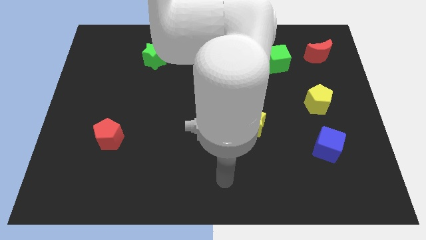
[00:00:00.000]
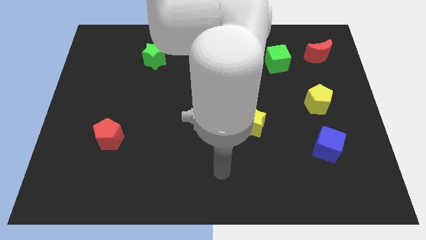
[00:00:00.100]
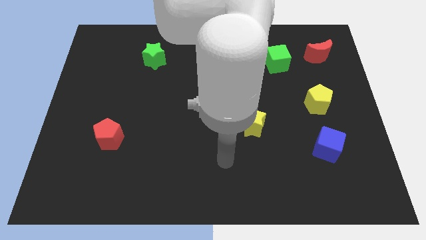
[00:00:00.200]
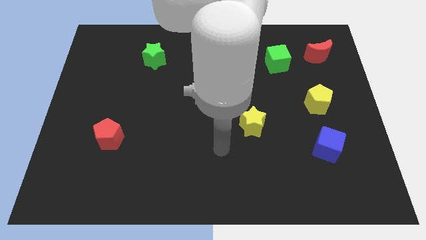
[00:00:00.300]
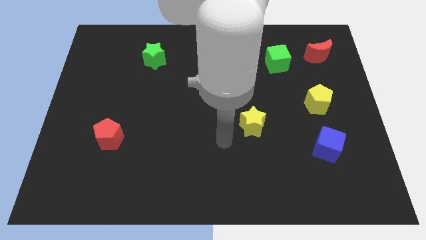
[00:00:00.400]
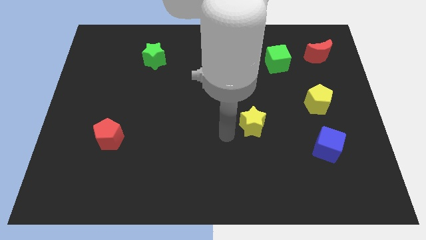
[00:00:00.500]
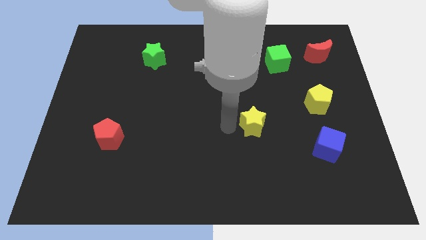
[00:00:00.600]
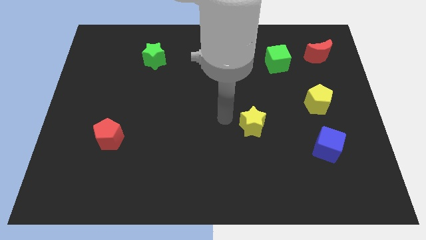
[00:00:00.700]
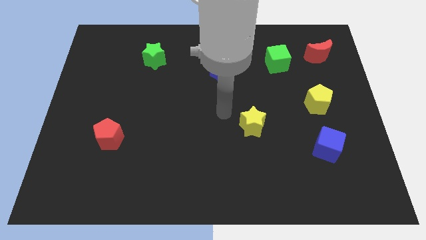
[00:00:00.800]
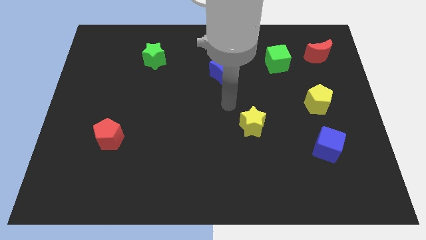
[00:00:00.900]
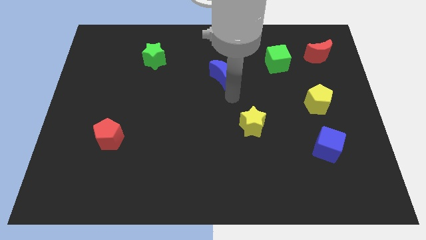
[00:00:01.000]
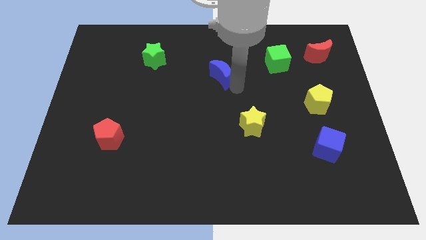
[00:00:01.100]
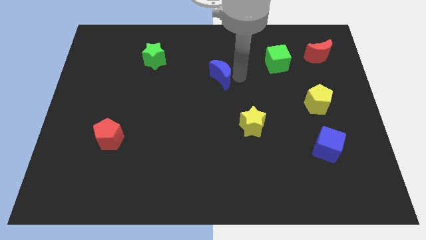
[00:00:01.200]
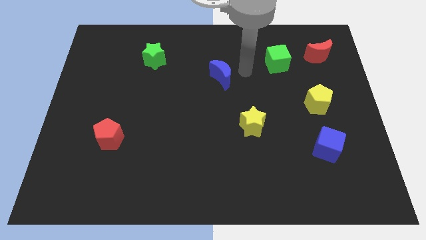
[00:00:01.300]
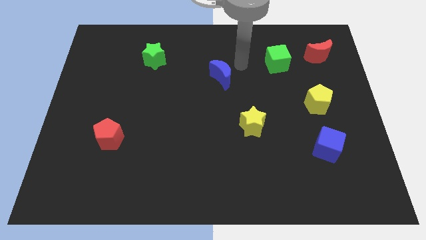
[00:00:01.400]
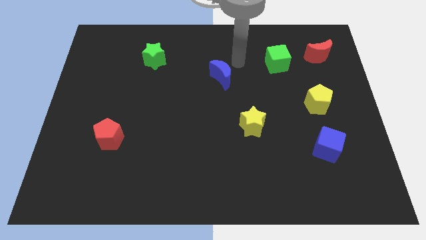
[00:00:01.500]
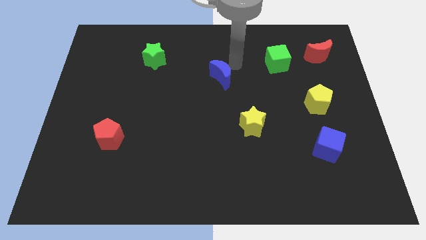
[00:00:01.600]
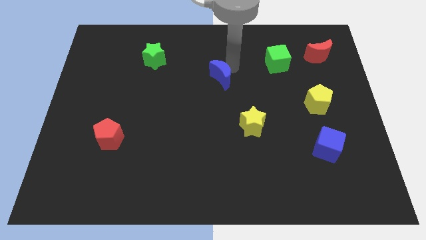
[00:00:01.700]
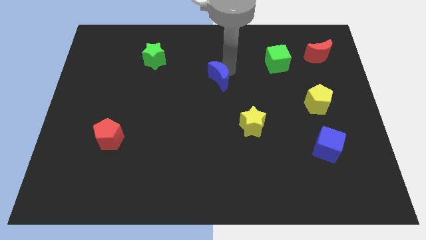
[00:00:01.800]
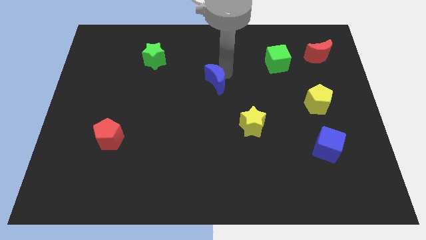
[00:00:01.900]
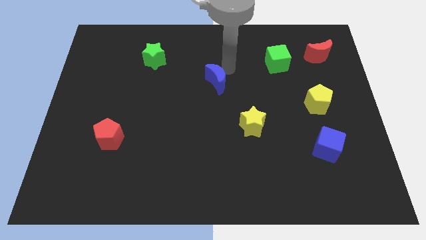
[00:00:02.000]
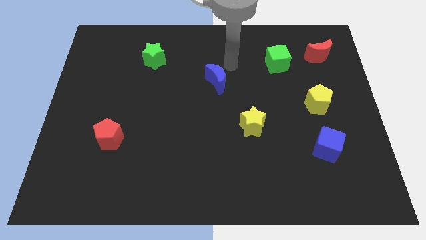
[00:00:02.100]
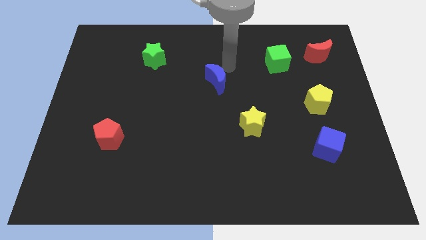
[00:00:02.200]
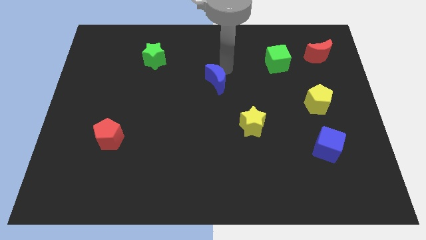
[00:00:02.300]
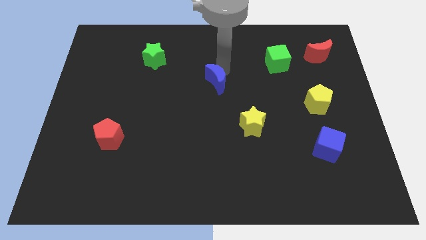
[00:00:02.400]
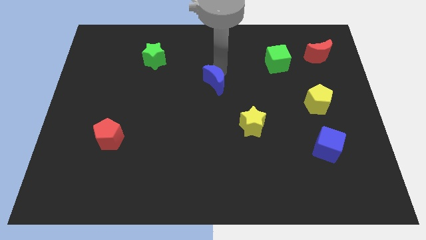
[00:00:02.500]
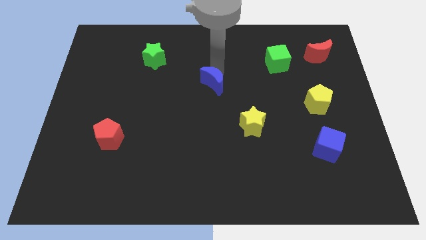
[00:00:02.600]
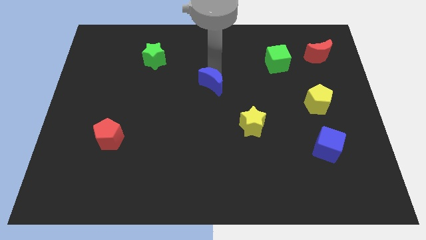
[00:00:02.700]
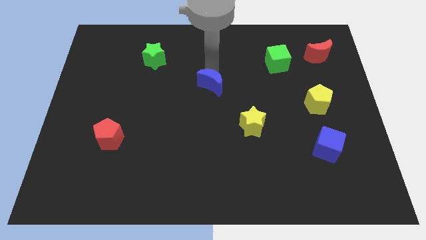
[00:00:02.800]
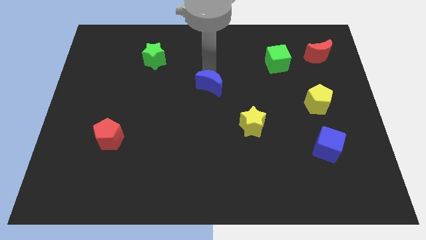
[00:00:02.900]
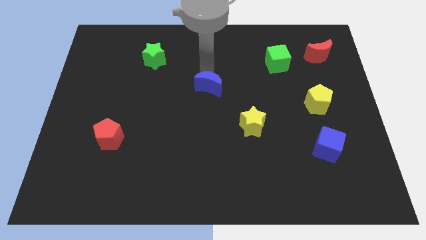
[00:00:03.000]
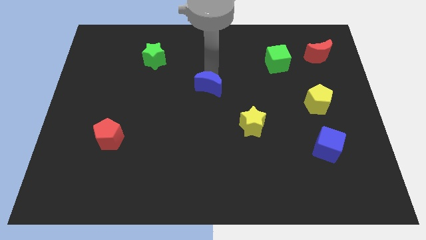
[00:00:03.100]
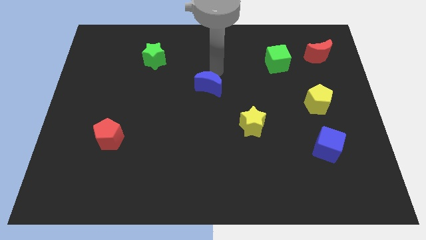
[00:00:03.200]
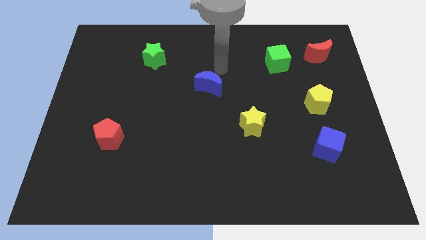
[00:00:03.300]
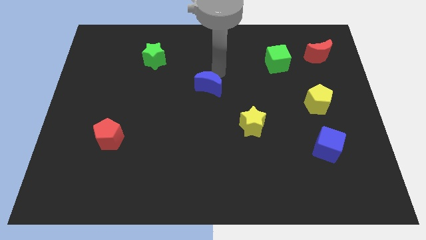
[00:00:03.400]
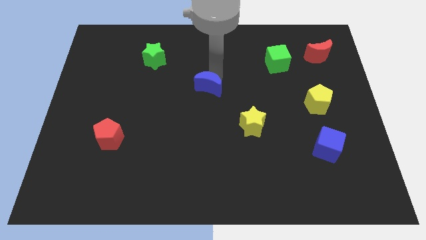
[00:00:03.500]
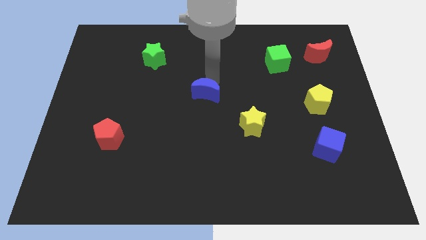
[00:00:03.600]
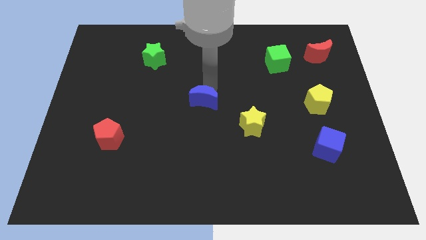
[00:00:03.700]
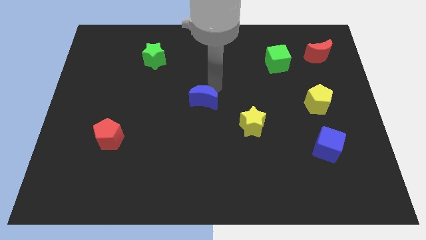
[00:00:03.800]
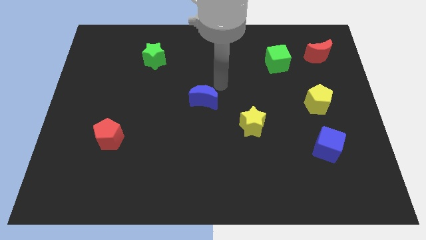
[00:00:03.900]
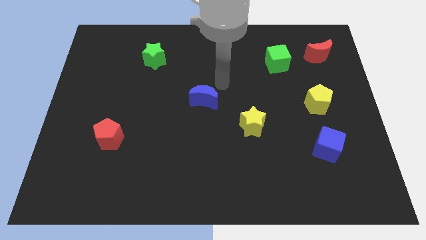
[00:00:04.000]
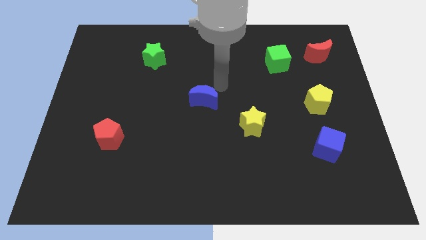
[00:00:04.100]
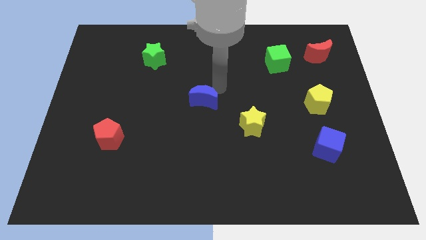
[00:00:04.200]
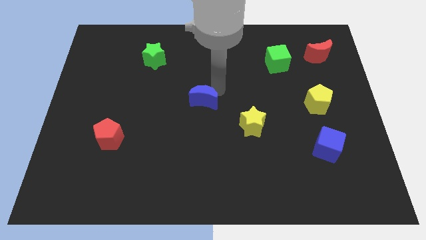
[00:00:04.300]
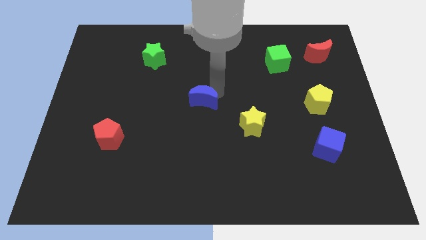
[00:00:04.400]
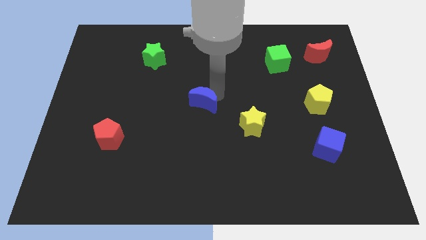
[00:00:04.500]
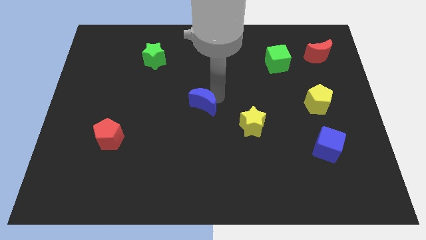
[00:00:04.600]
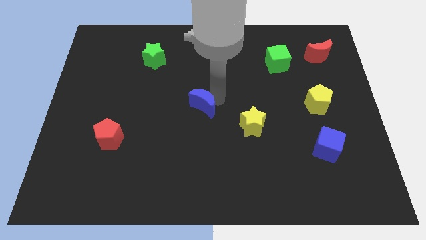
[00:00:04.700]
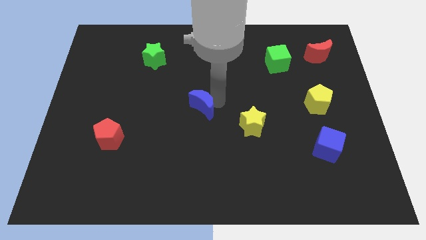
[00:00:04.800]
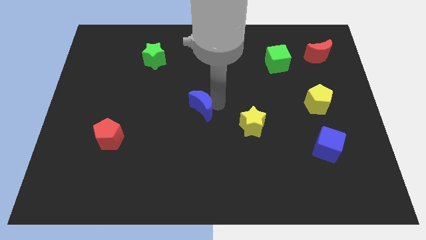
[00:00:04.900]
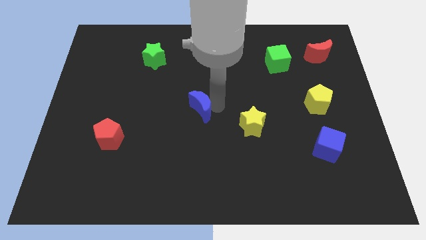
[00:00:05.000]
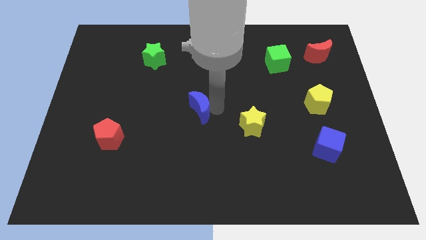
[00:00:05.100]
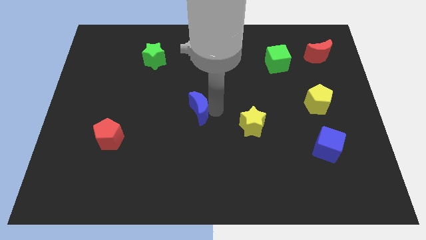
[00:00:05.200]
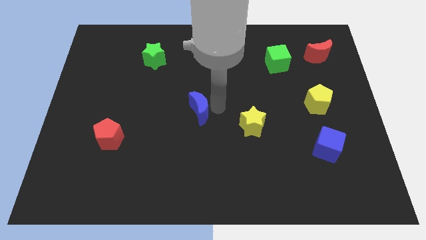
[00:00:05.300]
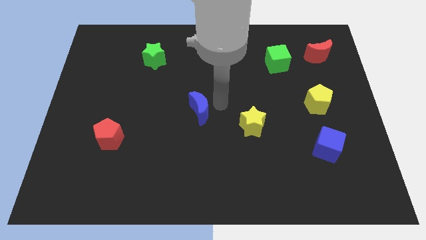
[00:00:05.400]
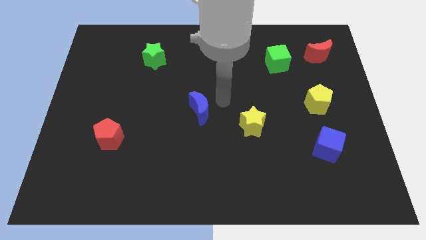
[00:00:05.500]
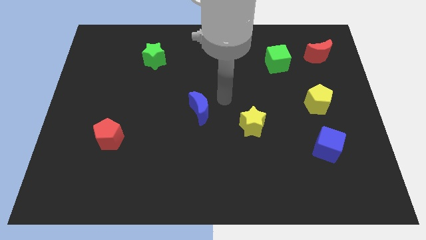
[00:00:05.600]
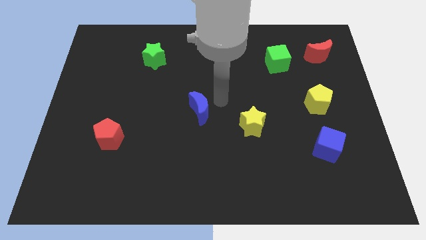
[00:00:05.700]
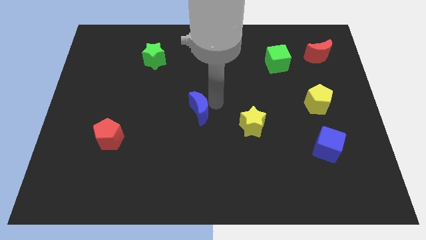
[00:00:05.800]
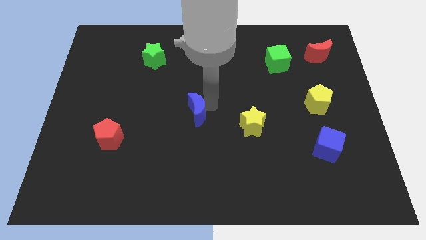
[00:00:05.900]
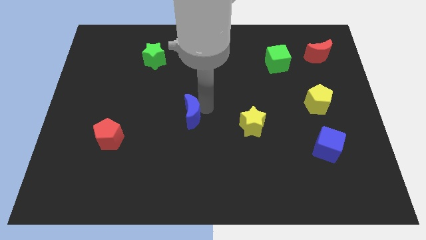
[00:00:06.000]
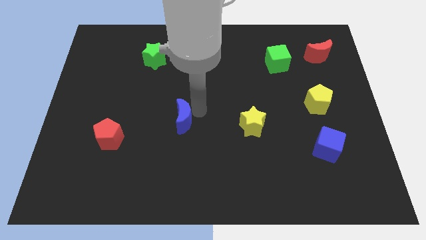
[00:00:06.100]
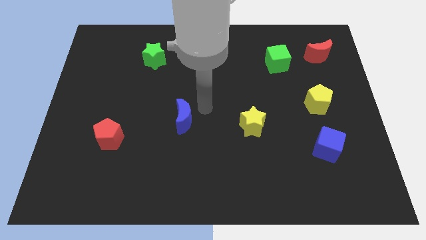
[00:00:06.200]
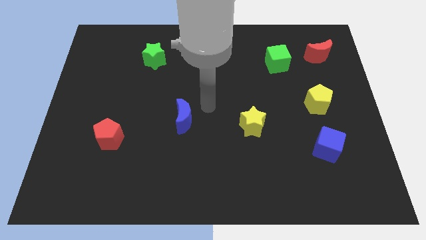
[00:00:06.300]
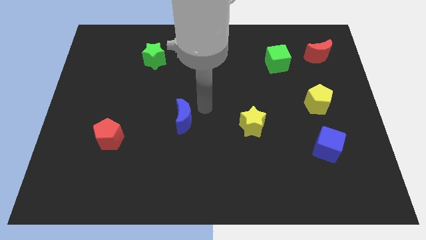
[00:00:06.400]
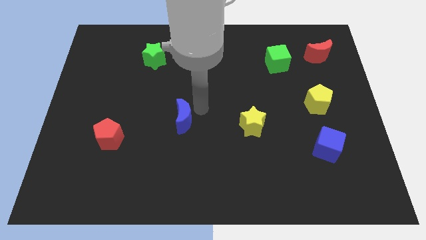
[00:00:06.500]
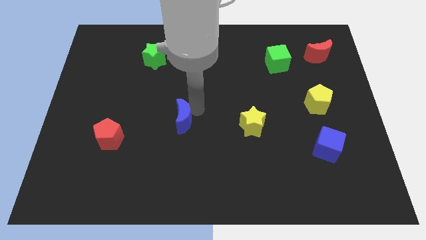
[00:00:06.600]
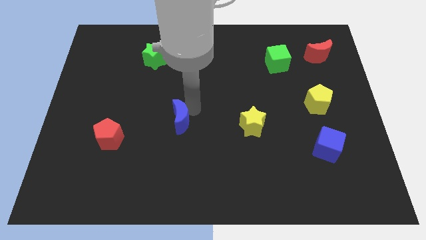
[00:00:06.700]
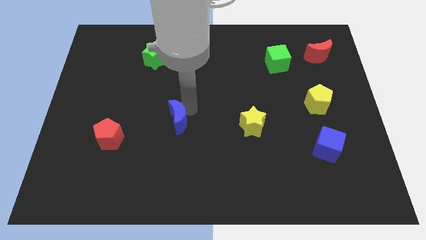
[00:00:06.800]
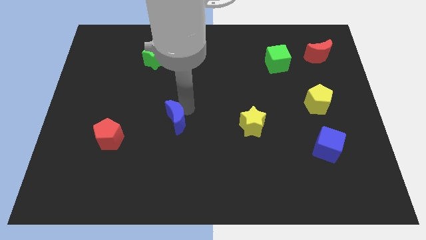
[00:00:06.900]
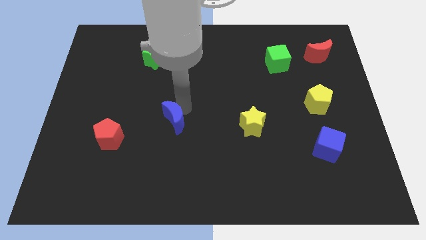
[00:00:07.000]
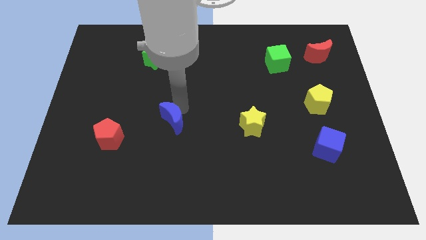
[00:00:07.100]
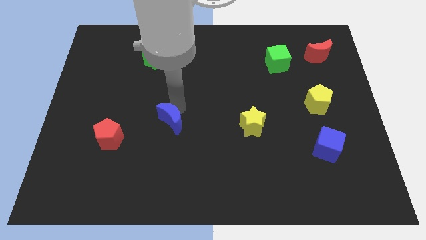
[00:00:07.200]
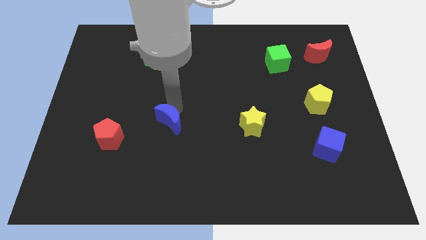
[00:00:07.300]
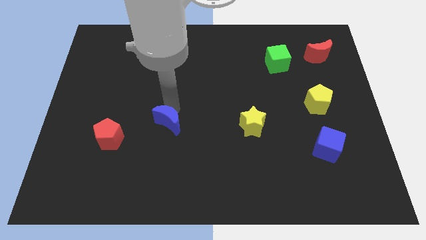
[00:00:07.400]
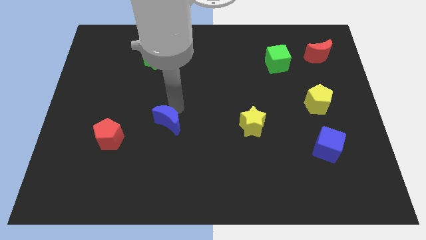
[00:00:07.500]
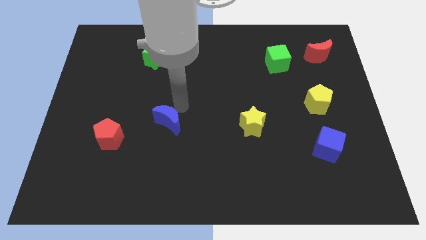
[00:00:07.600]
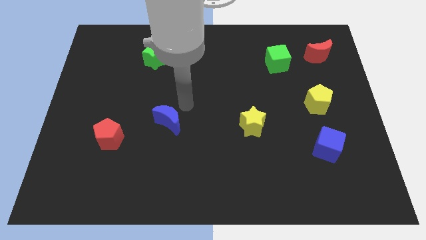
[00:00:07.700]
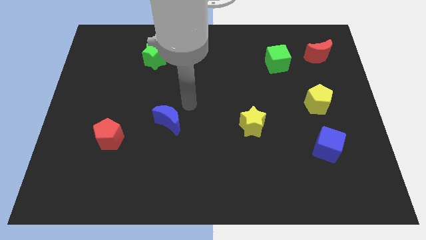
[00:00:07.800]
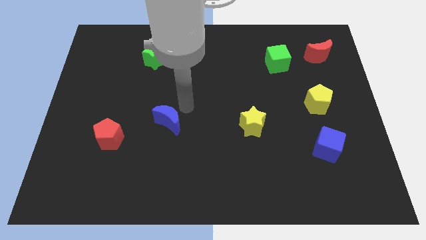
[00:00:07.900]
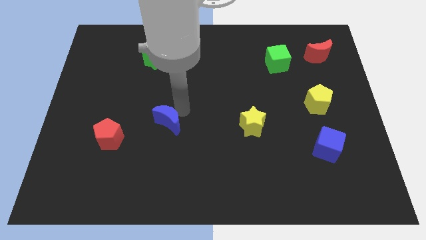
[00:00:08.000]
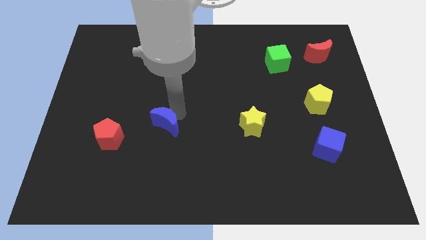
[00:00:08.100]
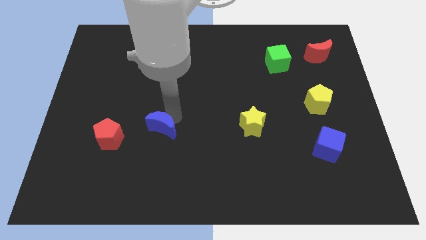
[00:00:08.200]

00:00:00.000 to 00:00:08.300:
push the blue moon down and left
